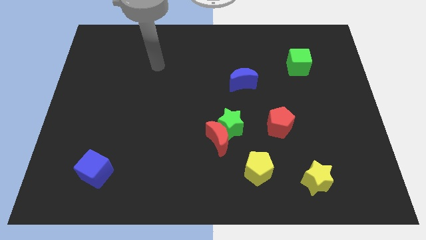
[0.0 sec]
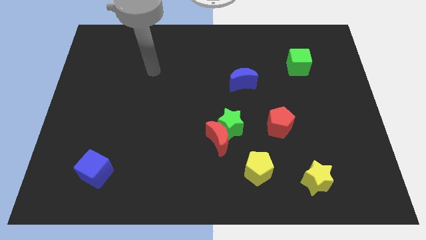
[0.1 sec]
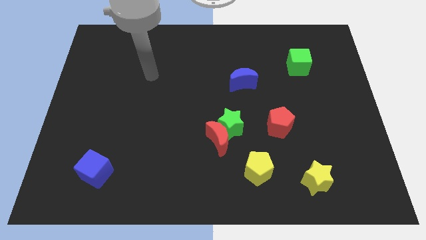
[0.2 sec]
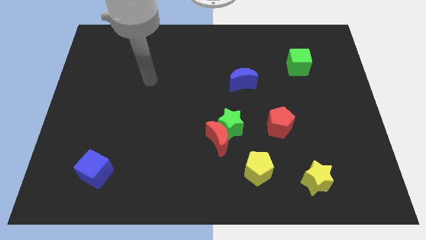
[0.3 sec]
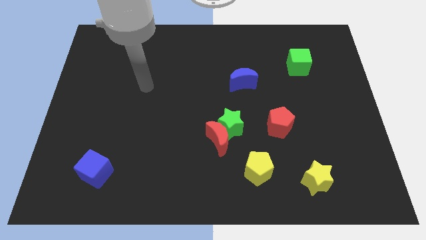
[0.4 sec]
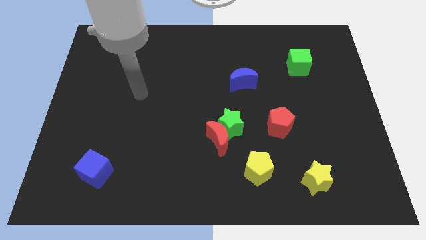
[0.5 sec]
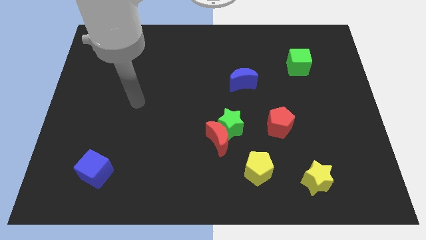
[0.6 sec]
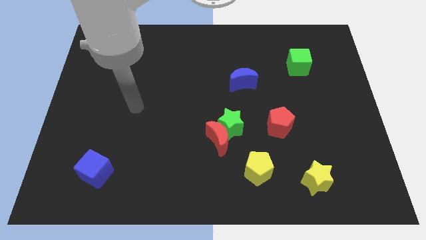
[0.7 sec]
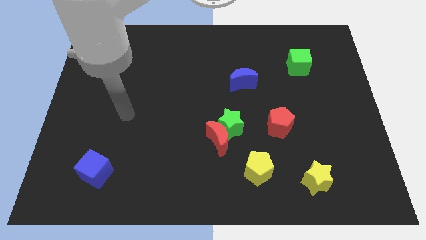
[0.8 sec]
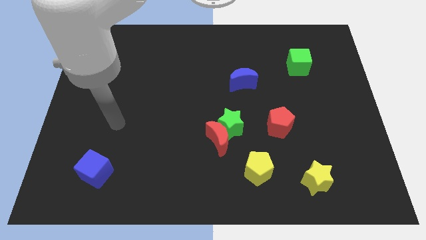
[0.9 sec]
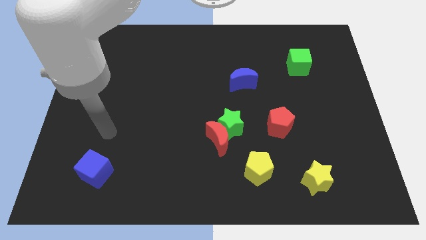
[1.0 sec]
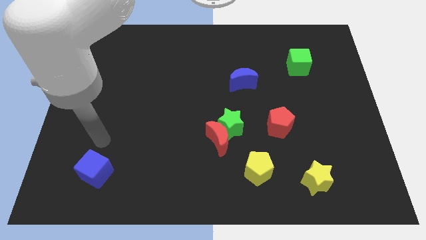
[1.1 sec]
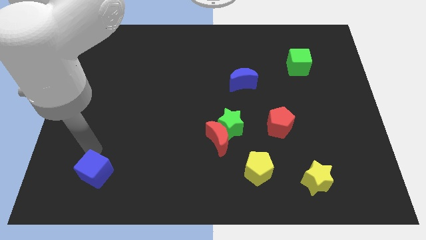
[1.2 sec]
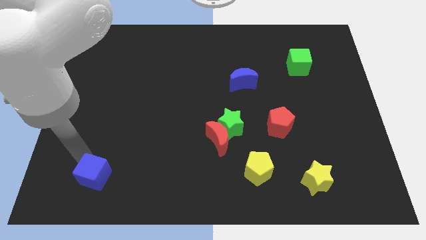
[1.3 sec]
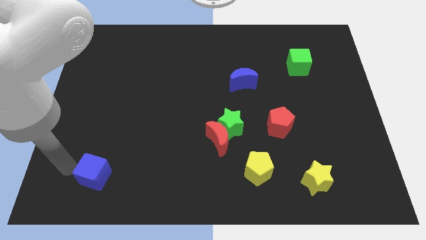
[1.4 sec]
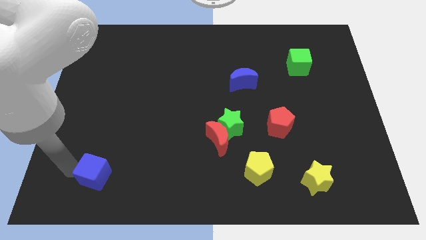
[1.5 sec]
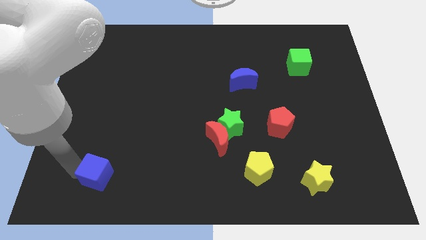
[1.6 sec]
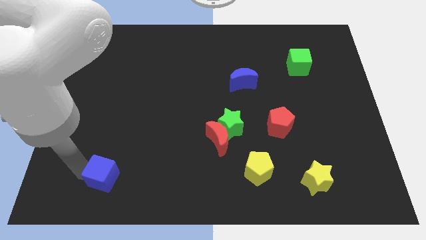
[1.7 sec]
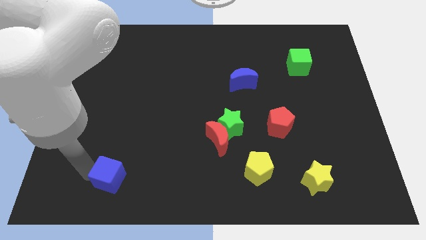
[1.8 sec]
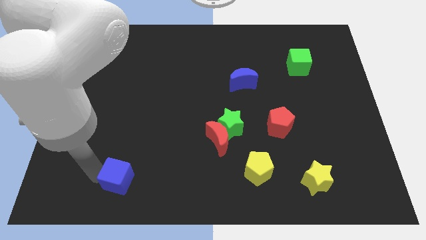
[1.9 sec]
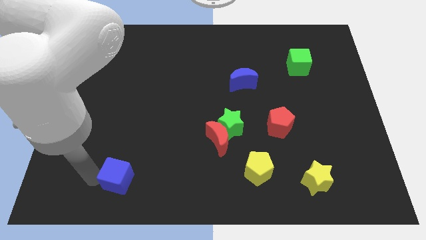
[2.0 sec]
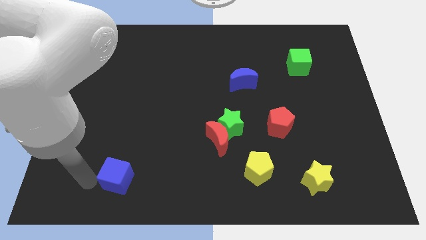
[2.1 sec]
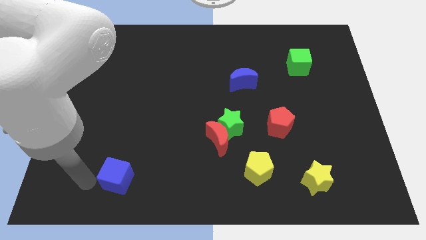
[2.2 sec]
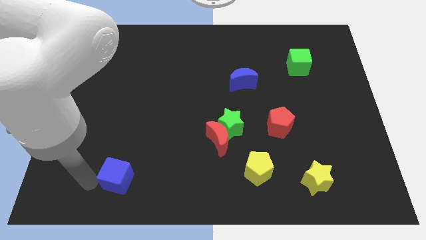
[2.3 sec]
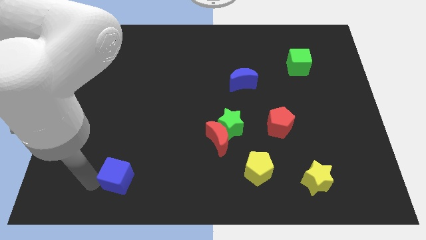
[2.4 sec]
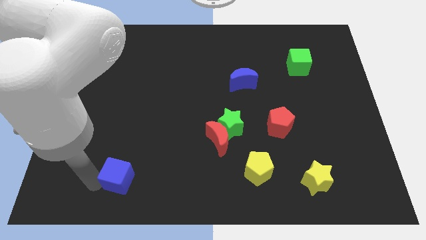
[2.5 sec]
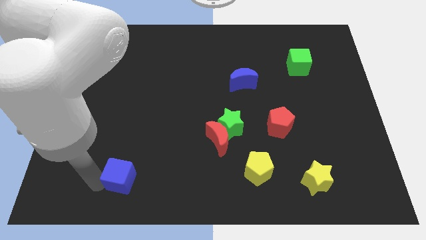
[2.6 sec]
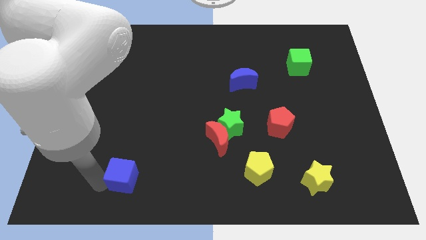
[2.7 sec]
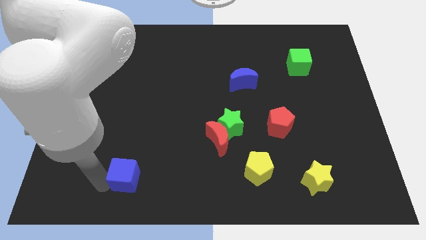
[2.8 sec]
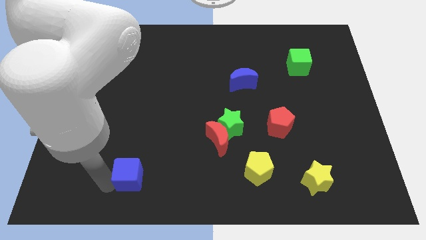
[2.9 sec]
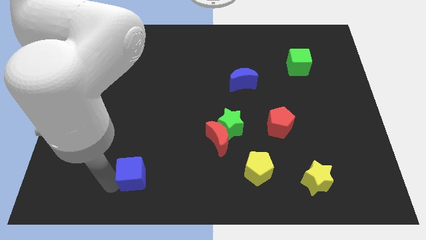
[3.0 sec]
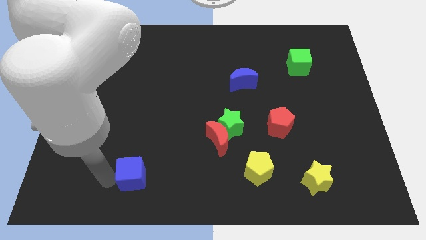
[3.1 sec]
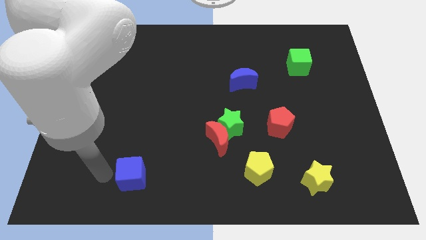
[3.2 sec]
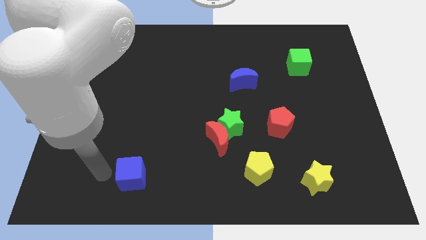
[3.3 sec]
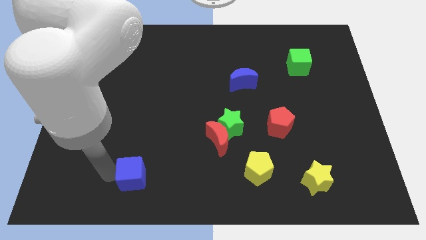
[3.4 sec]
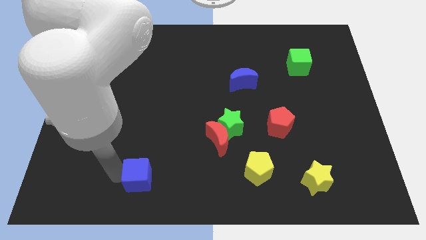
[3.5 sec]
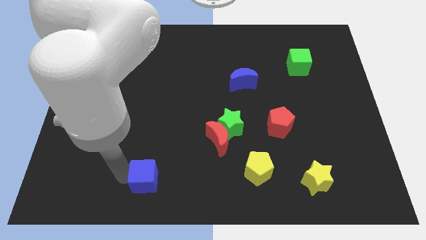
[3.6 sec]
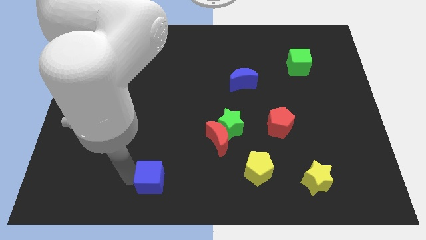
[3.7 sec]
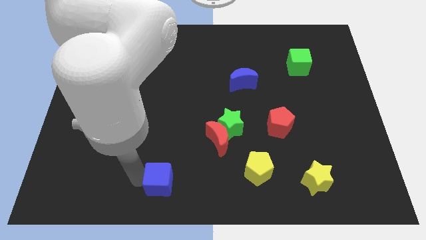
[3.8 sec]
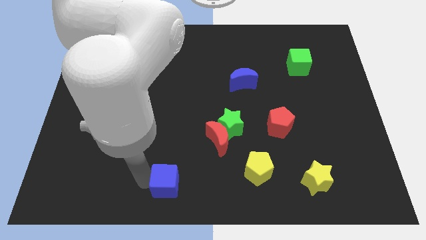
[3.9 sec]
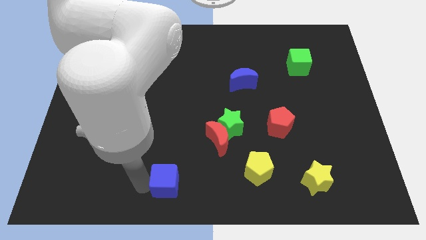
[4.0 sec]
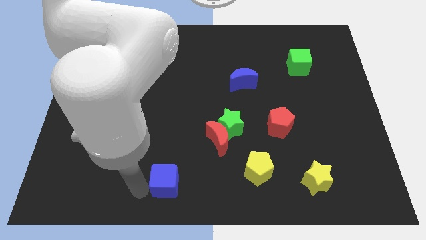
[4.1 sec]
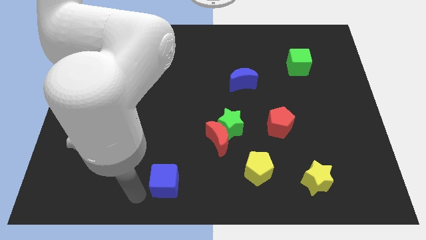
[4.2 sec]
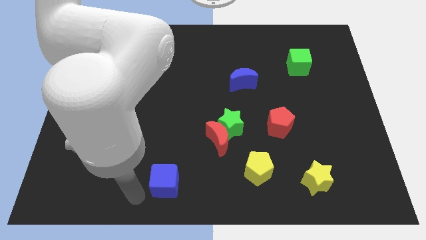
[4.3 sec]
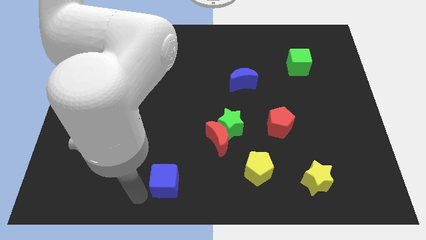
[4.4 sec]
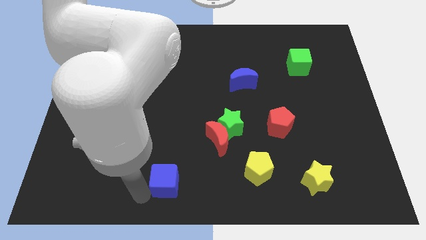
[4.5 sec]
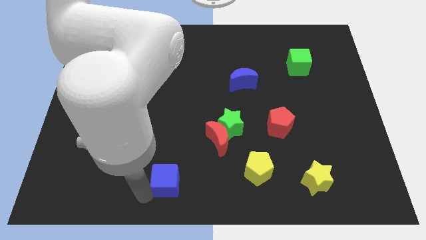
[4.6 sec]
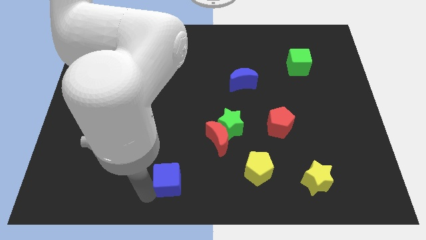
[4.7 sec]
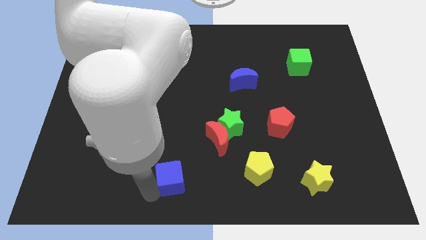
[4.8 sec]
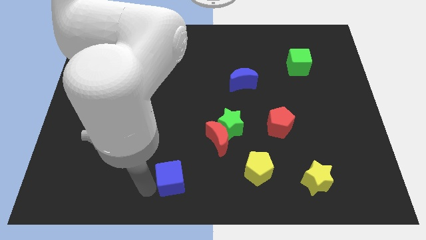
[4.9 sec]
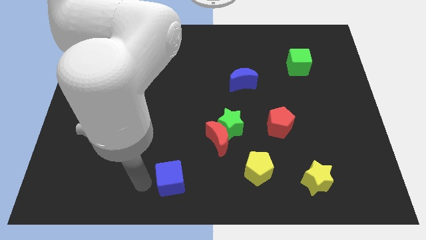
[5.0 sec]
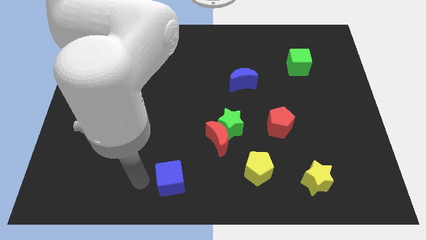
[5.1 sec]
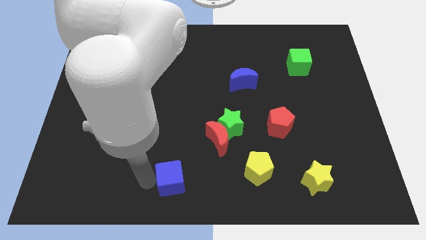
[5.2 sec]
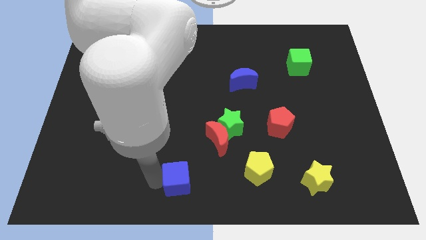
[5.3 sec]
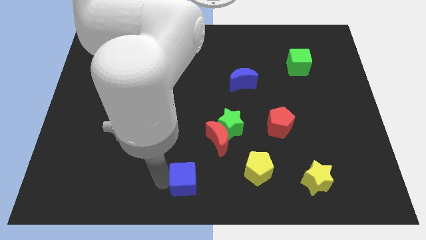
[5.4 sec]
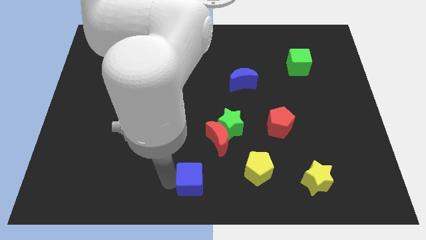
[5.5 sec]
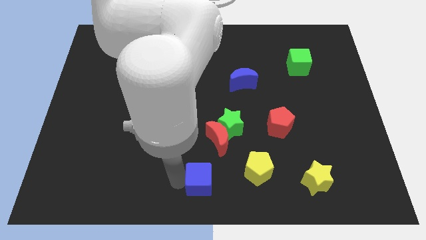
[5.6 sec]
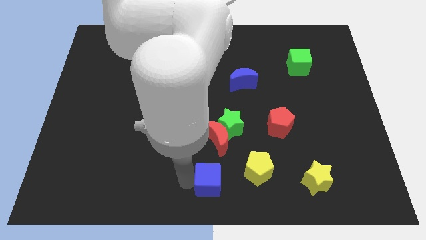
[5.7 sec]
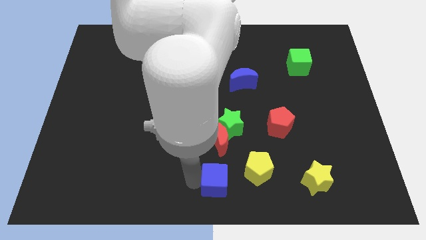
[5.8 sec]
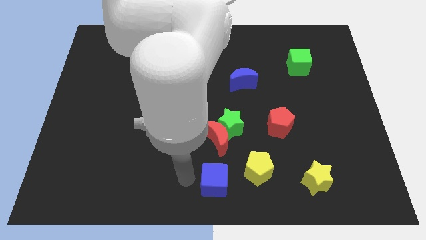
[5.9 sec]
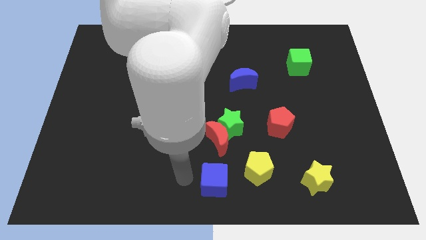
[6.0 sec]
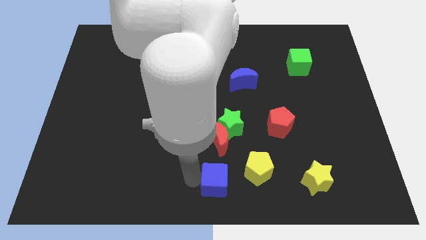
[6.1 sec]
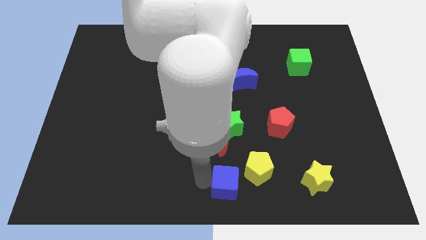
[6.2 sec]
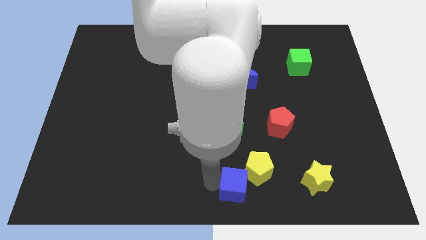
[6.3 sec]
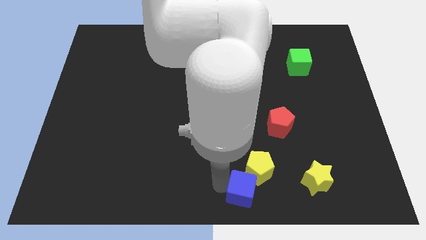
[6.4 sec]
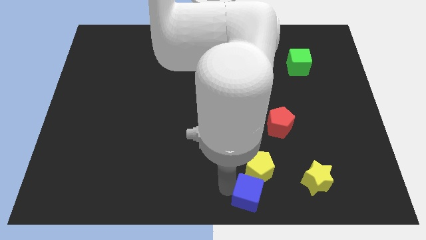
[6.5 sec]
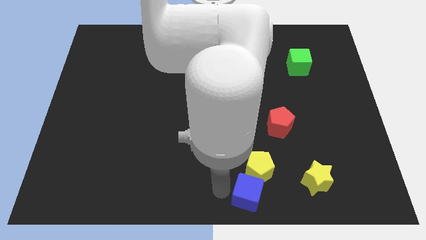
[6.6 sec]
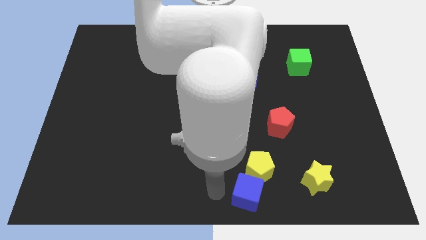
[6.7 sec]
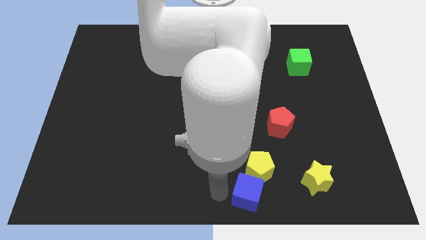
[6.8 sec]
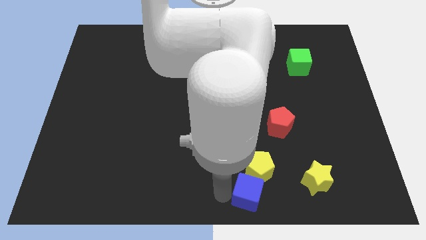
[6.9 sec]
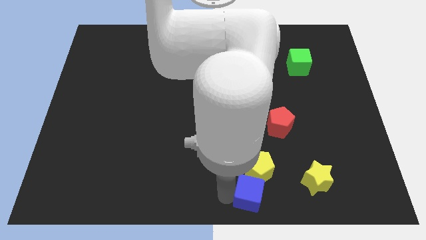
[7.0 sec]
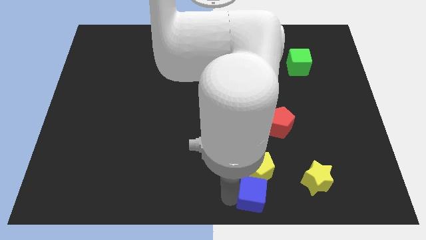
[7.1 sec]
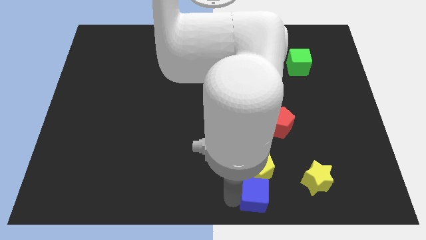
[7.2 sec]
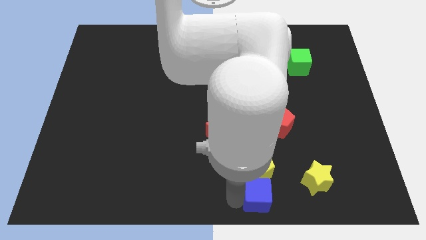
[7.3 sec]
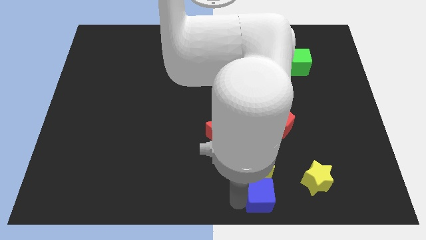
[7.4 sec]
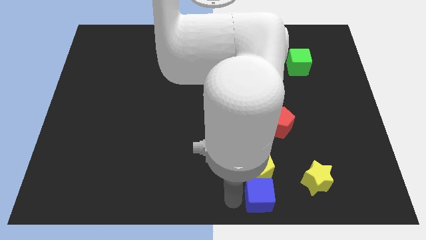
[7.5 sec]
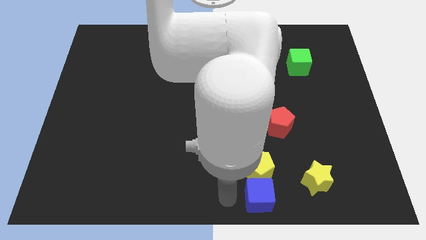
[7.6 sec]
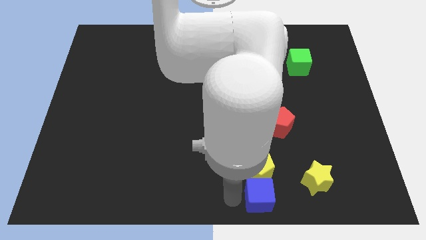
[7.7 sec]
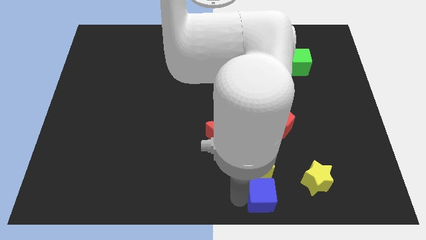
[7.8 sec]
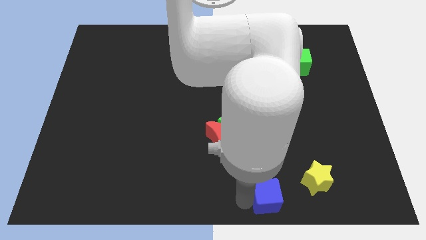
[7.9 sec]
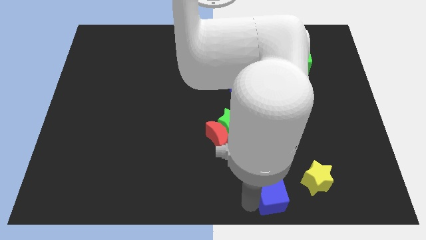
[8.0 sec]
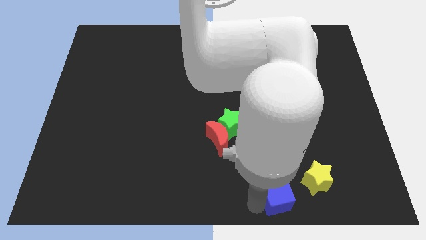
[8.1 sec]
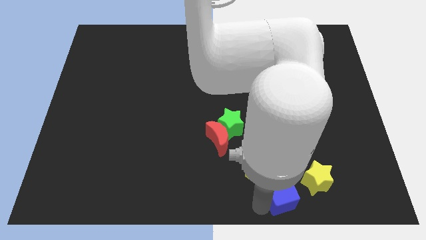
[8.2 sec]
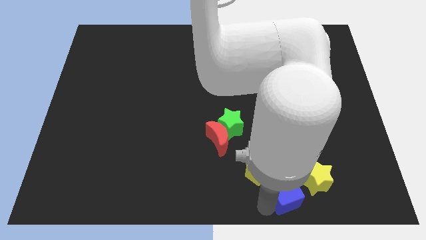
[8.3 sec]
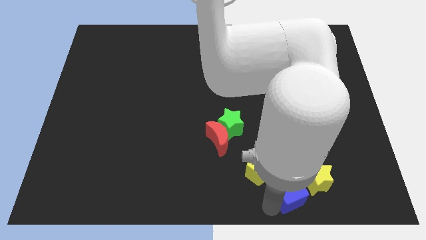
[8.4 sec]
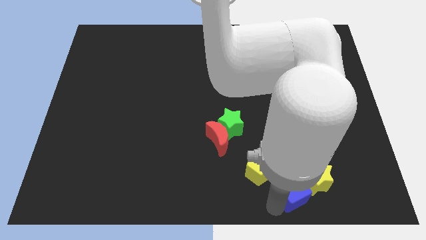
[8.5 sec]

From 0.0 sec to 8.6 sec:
push the blue cube to the yellow star
